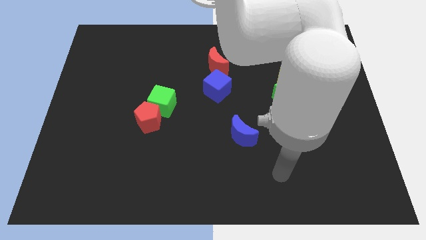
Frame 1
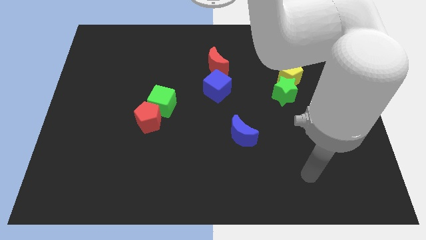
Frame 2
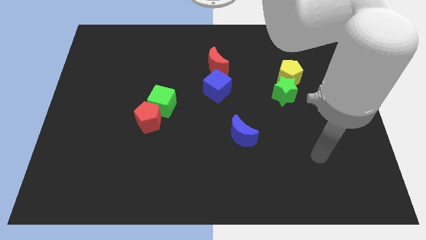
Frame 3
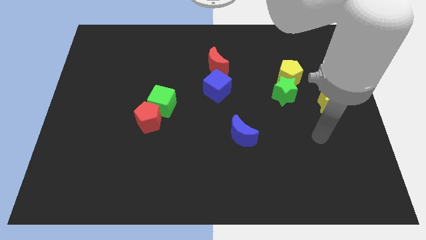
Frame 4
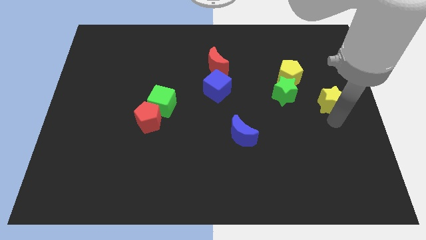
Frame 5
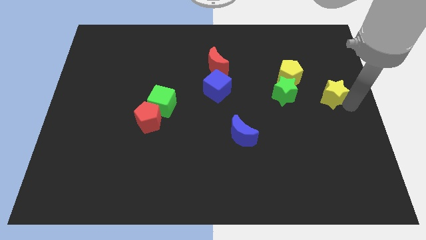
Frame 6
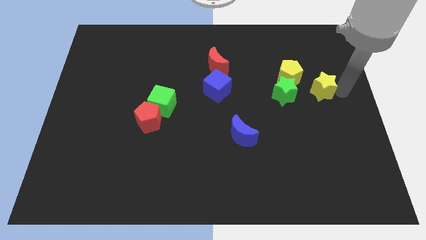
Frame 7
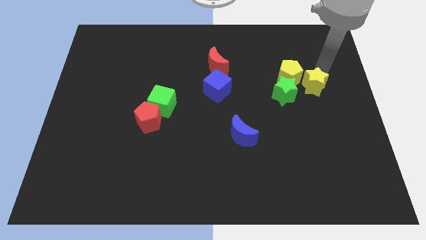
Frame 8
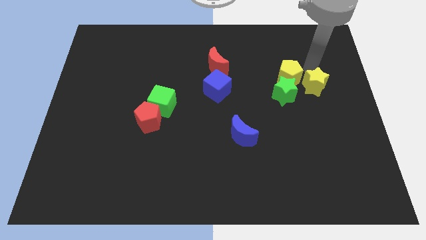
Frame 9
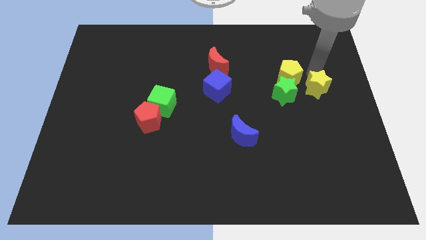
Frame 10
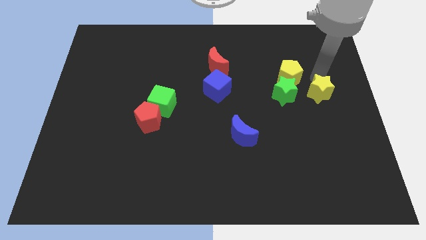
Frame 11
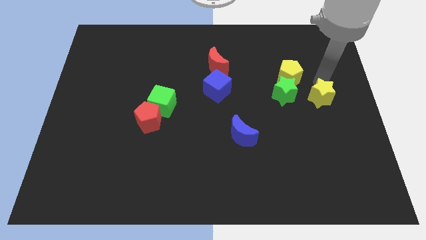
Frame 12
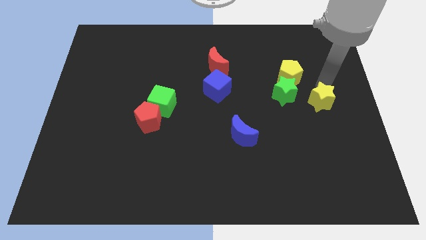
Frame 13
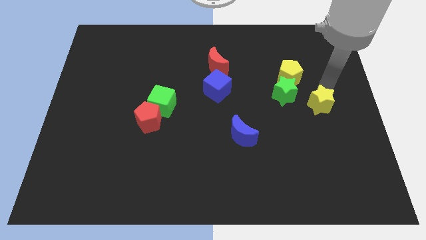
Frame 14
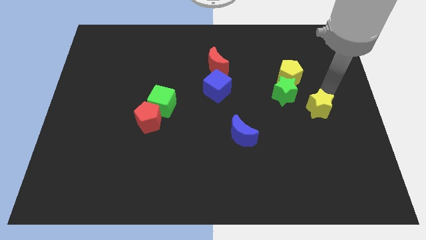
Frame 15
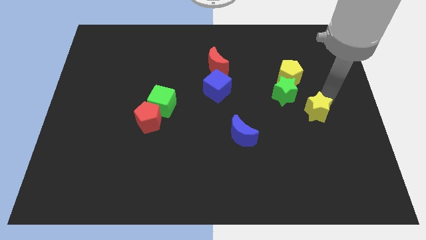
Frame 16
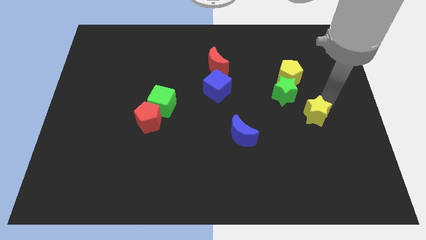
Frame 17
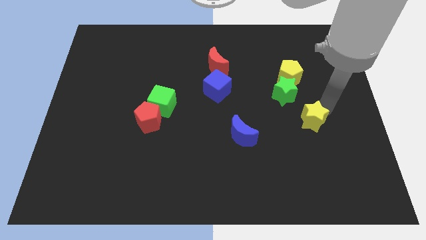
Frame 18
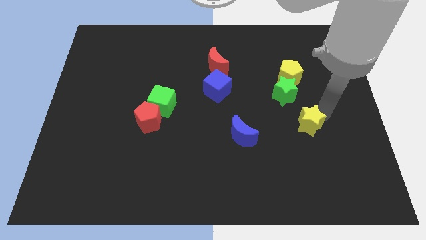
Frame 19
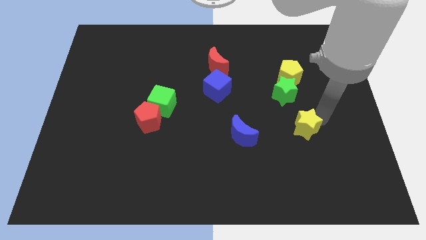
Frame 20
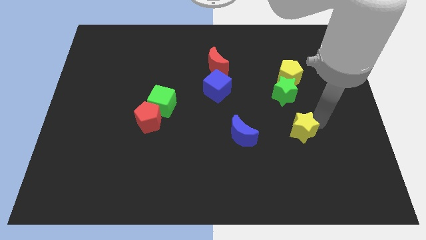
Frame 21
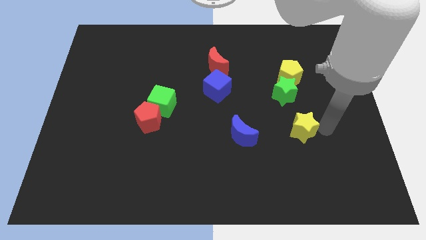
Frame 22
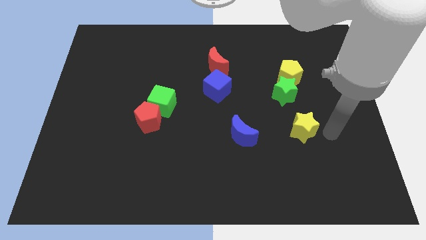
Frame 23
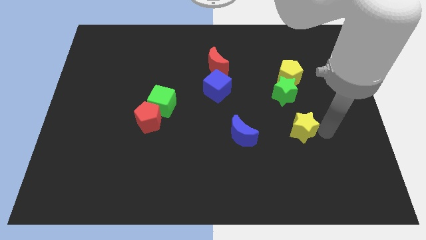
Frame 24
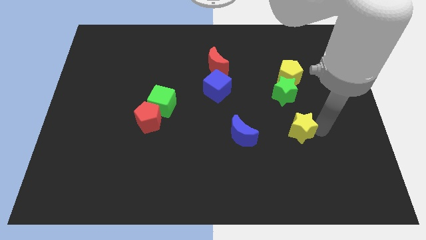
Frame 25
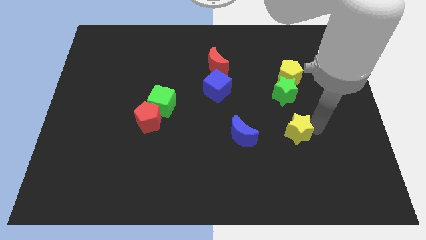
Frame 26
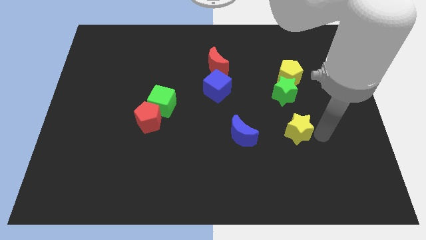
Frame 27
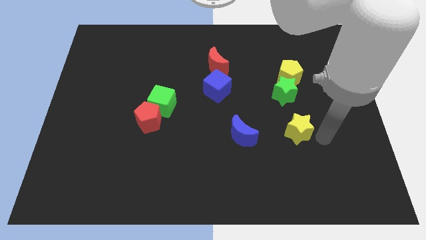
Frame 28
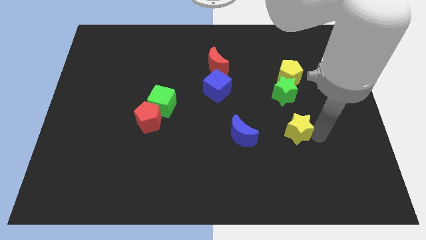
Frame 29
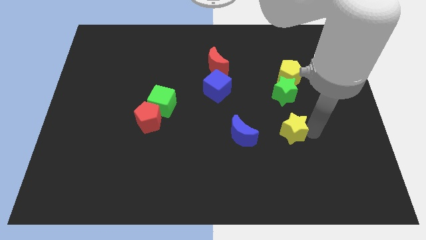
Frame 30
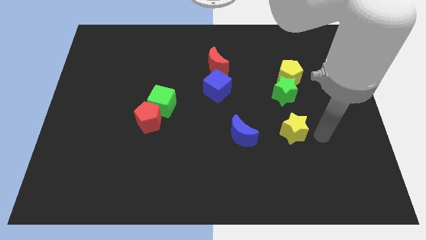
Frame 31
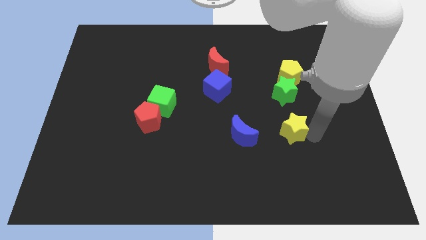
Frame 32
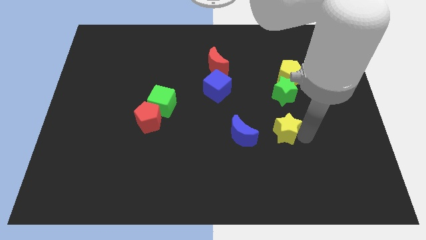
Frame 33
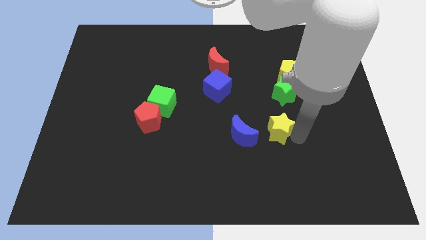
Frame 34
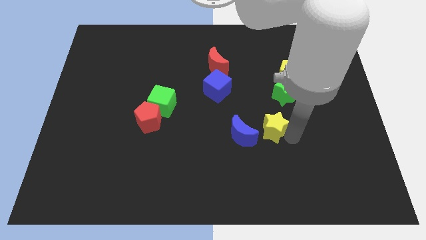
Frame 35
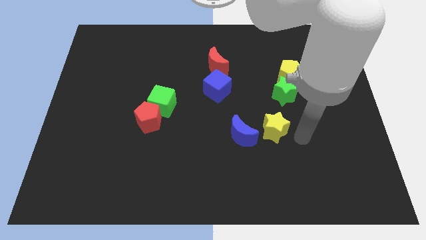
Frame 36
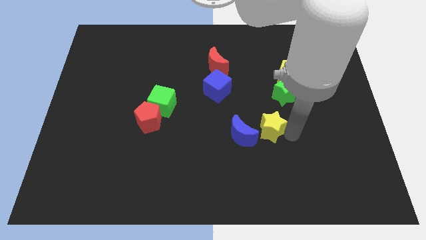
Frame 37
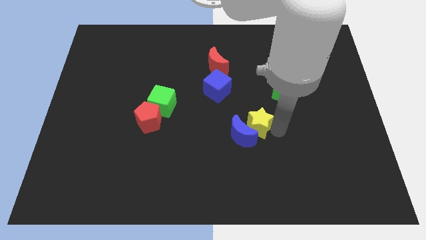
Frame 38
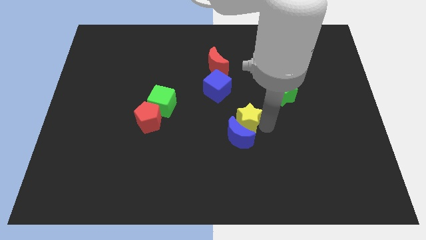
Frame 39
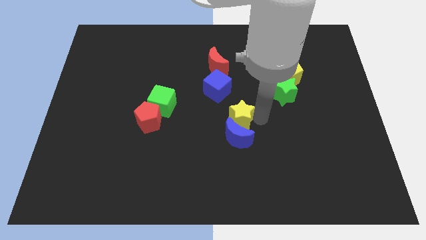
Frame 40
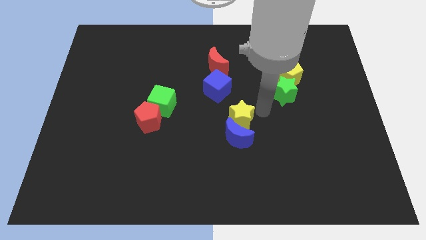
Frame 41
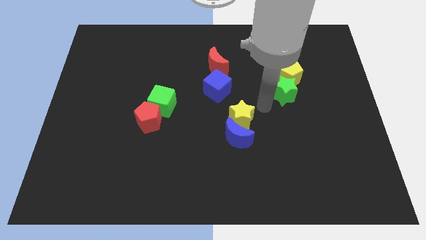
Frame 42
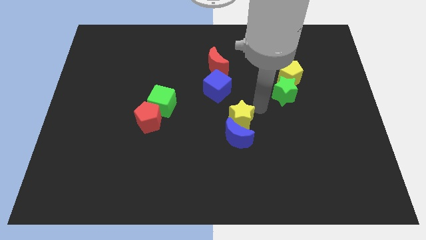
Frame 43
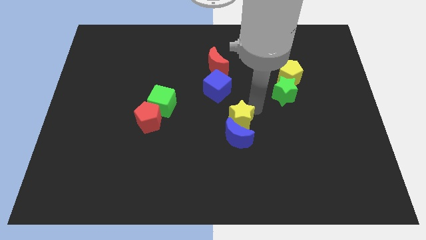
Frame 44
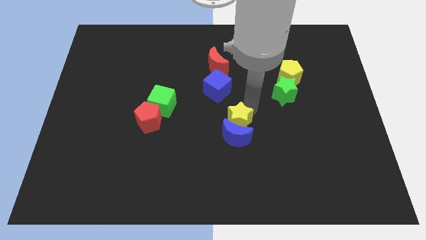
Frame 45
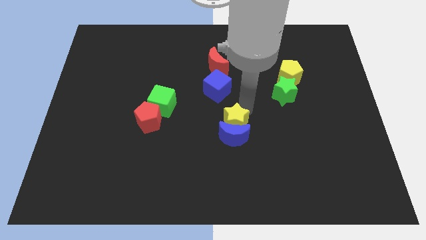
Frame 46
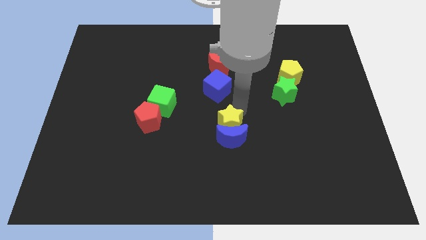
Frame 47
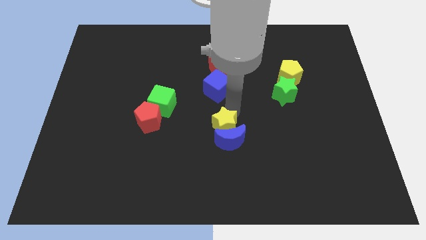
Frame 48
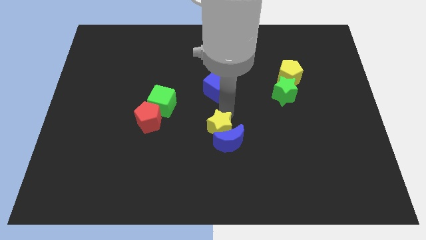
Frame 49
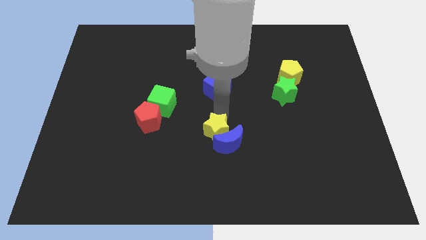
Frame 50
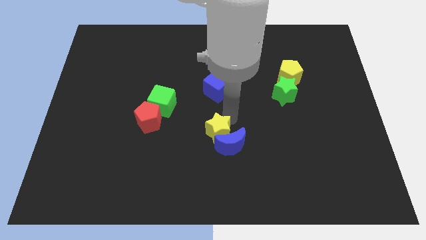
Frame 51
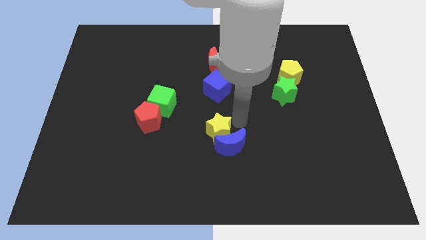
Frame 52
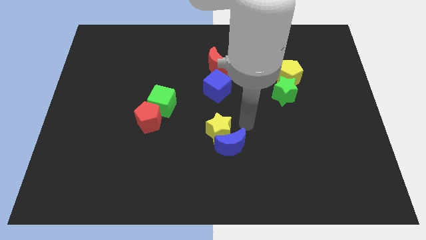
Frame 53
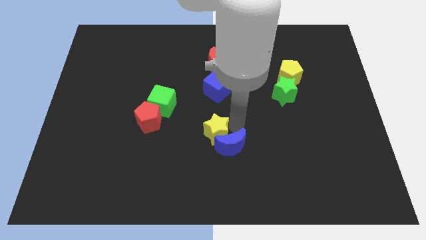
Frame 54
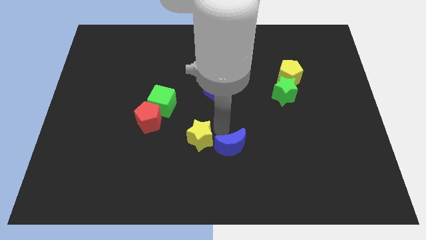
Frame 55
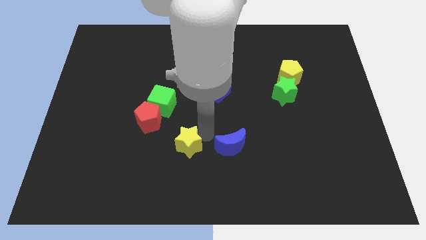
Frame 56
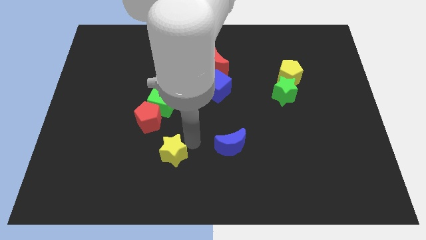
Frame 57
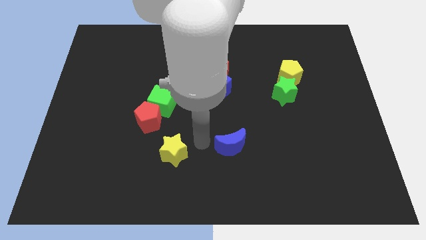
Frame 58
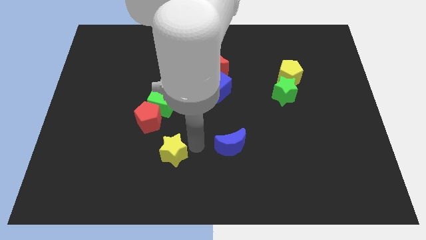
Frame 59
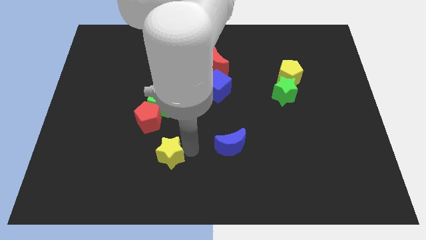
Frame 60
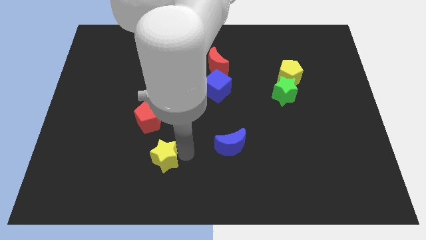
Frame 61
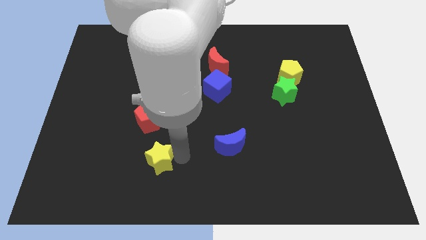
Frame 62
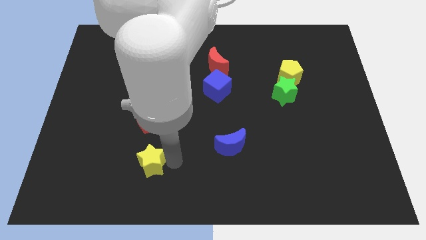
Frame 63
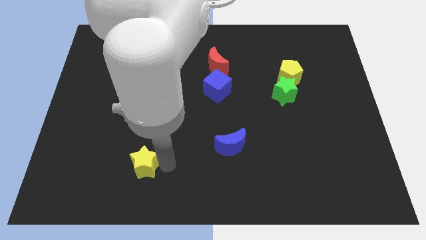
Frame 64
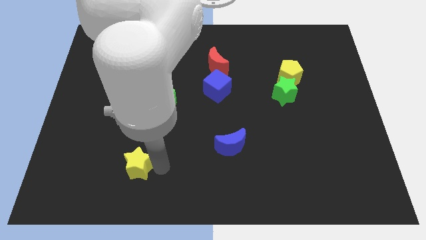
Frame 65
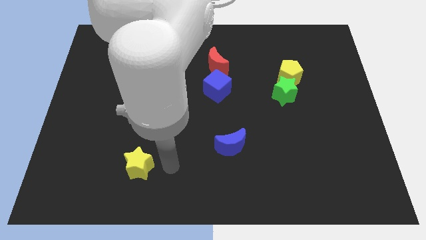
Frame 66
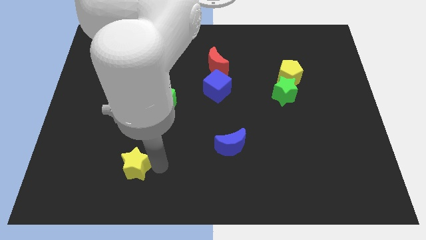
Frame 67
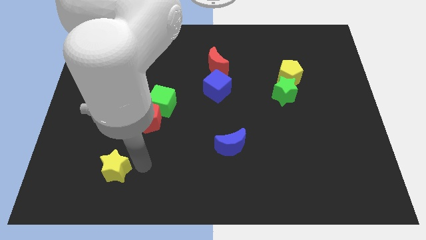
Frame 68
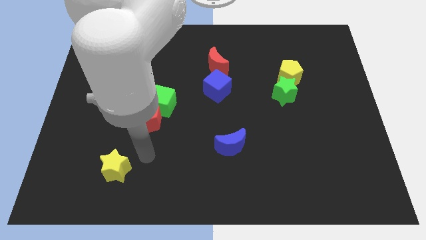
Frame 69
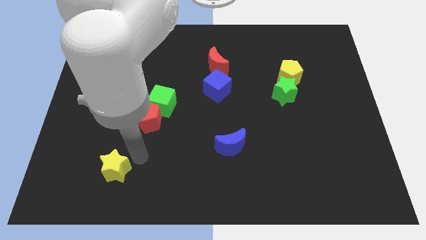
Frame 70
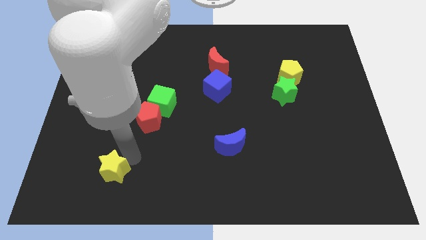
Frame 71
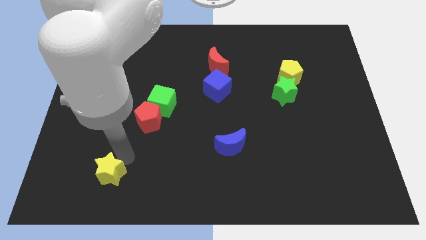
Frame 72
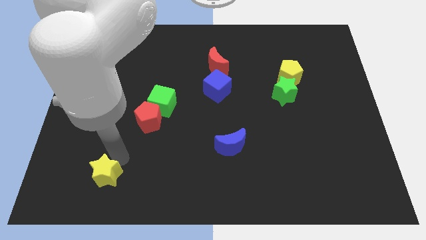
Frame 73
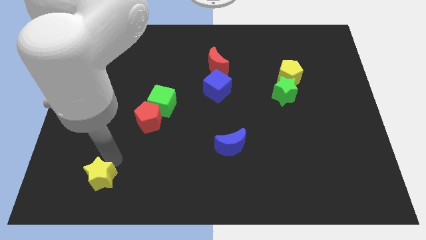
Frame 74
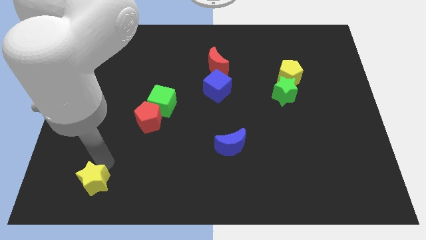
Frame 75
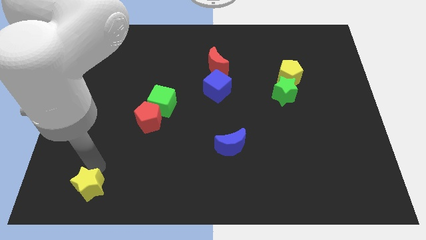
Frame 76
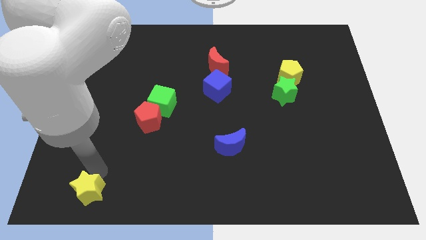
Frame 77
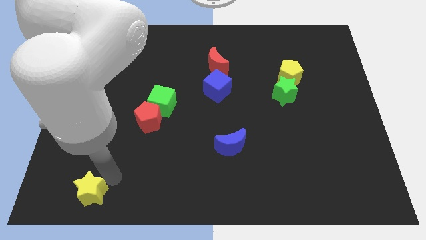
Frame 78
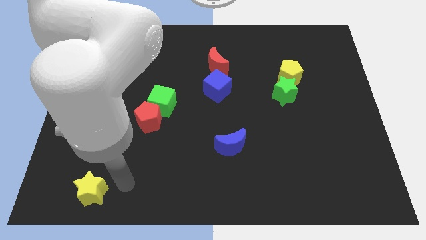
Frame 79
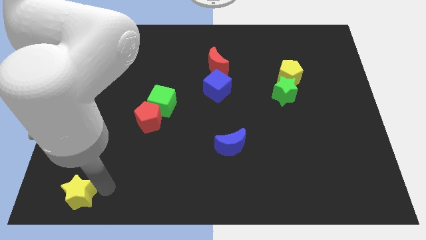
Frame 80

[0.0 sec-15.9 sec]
push the yellow star to the lower left corner
